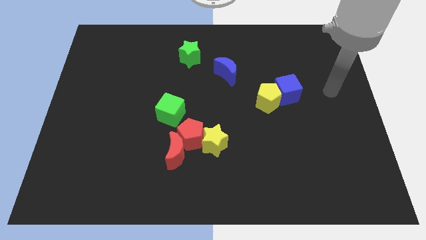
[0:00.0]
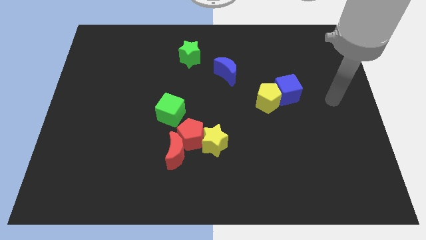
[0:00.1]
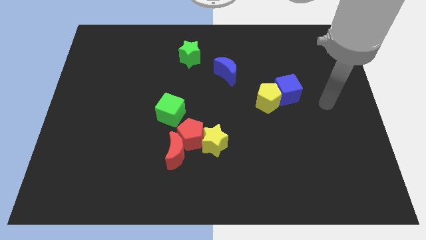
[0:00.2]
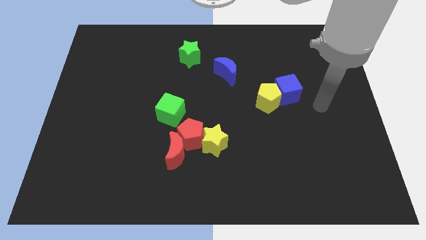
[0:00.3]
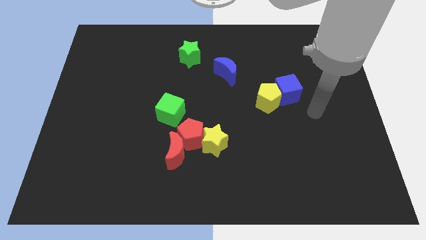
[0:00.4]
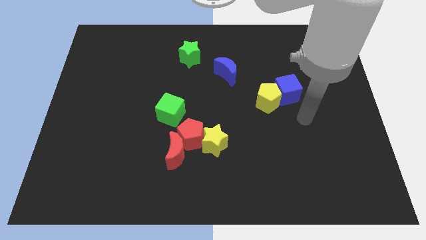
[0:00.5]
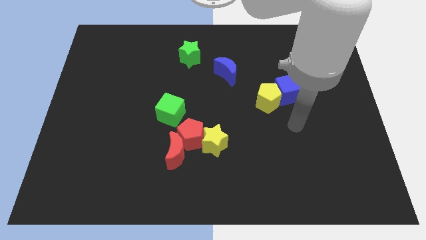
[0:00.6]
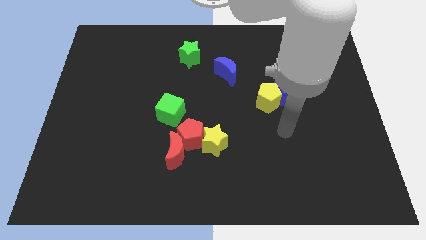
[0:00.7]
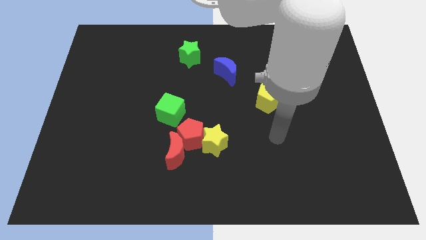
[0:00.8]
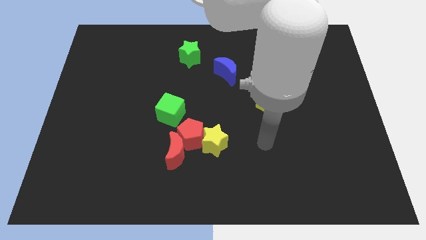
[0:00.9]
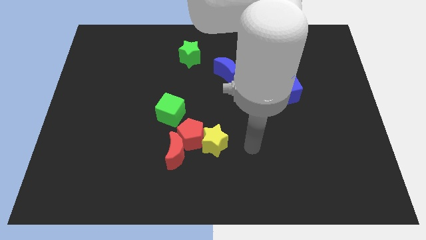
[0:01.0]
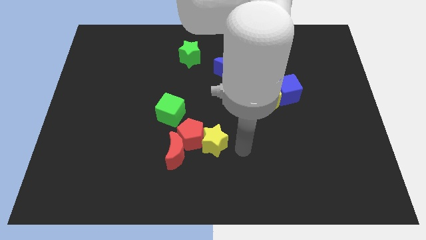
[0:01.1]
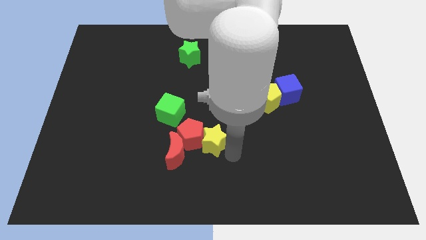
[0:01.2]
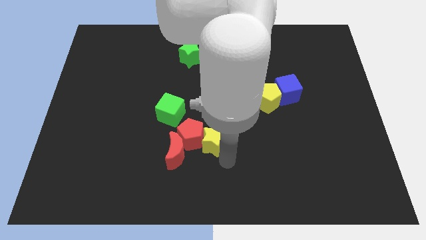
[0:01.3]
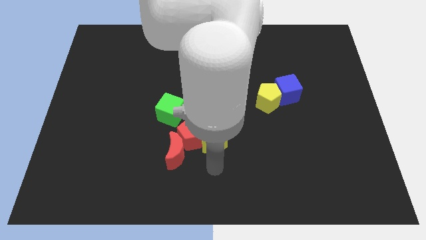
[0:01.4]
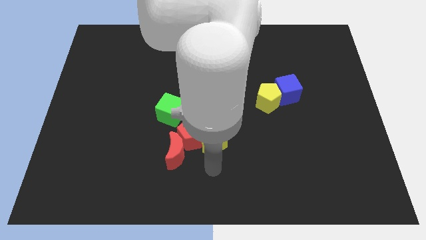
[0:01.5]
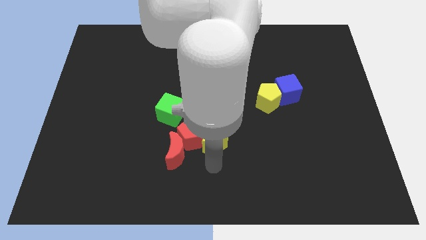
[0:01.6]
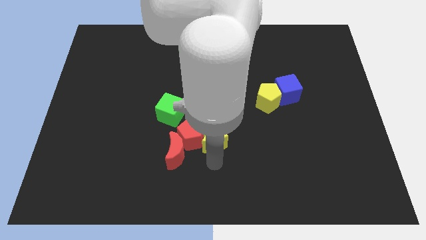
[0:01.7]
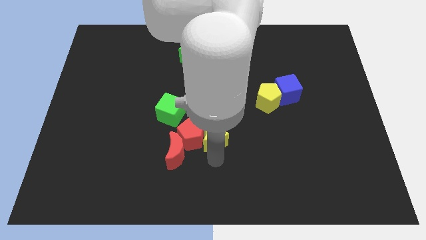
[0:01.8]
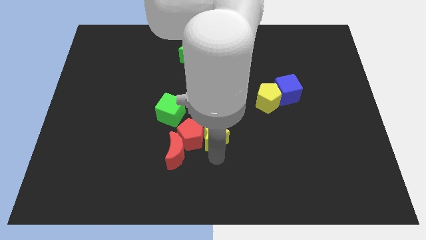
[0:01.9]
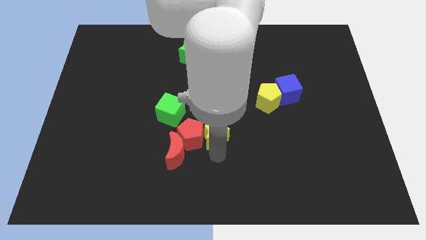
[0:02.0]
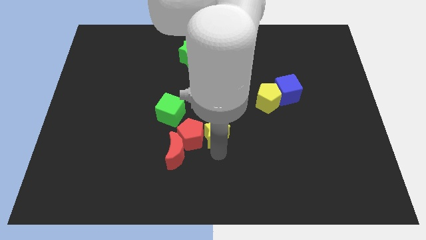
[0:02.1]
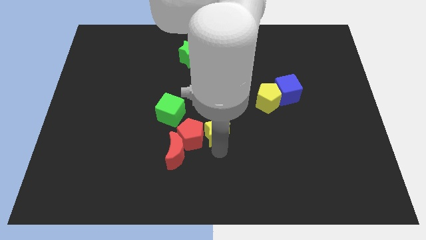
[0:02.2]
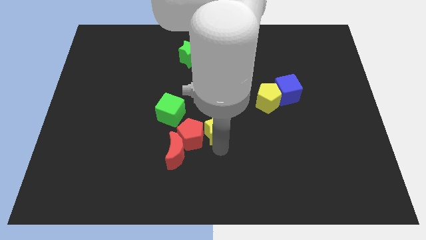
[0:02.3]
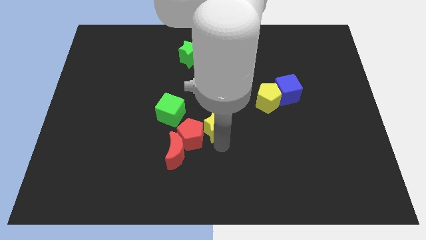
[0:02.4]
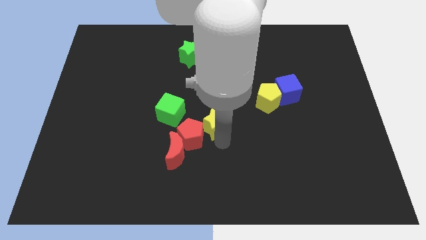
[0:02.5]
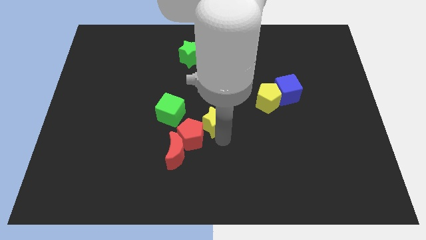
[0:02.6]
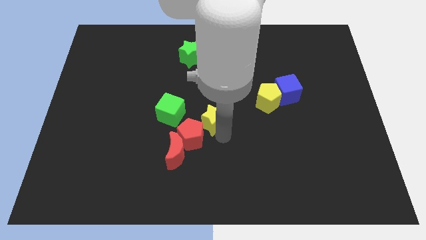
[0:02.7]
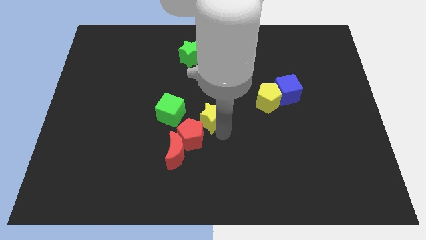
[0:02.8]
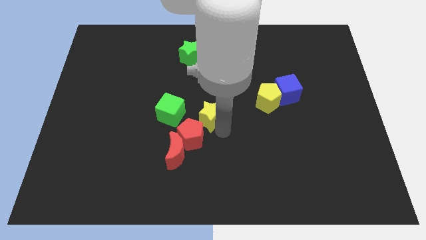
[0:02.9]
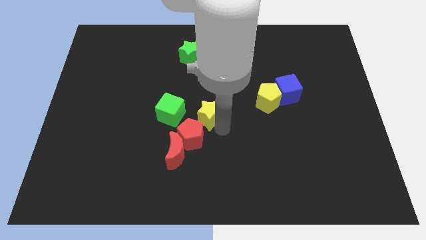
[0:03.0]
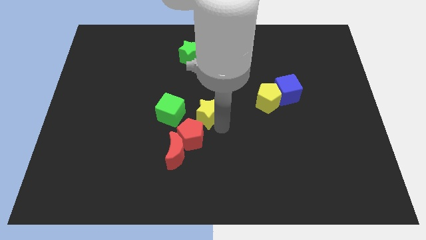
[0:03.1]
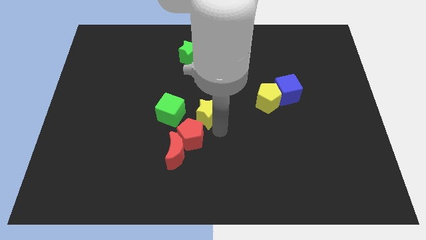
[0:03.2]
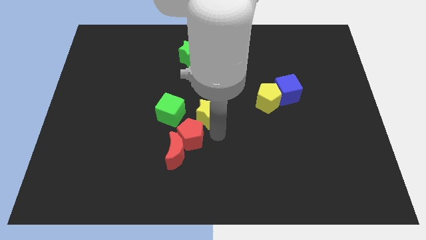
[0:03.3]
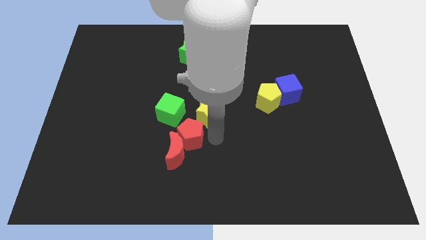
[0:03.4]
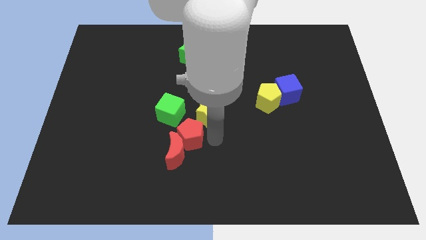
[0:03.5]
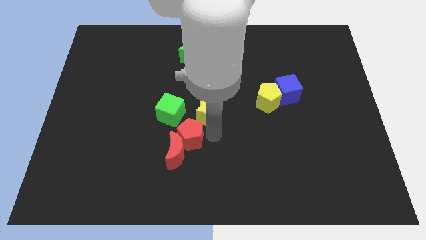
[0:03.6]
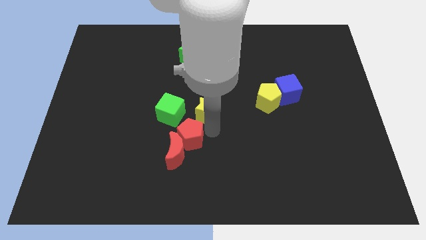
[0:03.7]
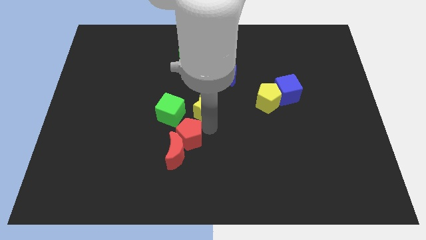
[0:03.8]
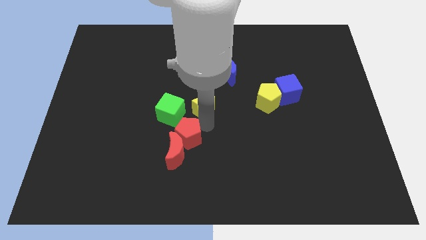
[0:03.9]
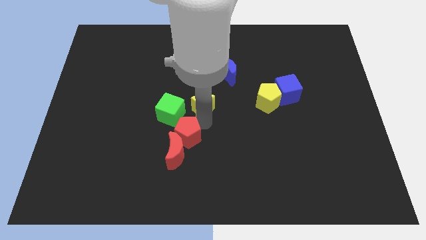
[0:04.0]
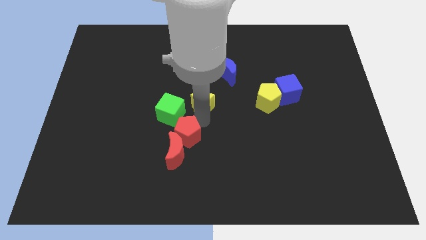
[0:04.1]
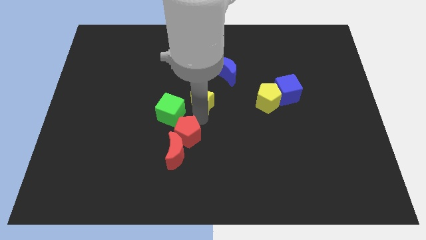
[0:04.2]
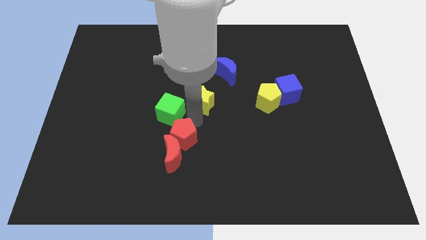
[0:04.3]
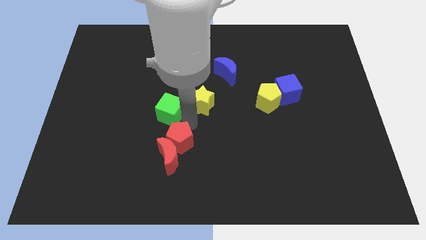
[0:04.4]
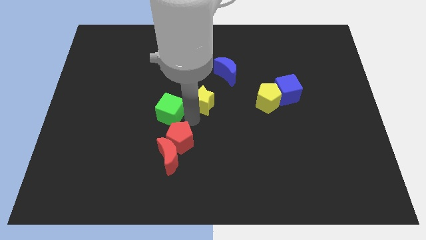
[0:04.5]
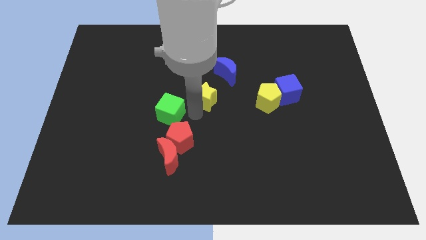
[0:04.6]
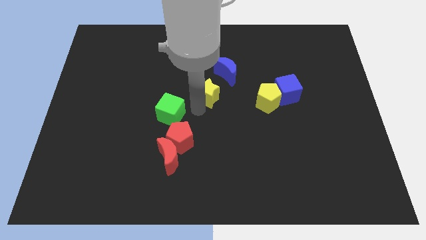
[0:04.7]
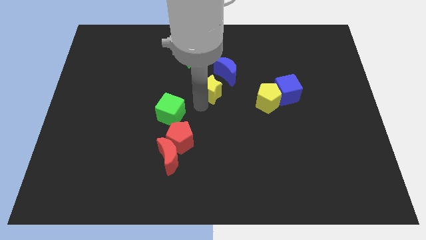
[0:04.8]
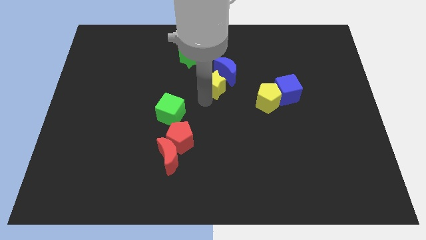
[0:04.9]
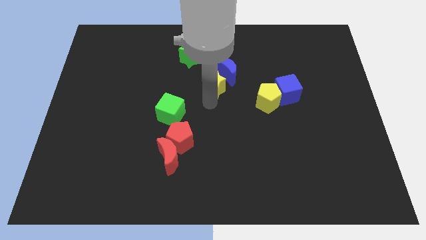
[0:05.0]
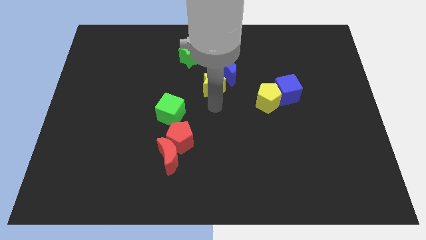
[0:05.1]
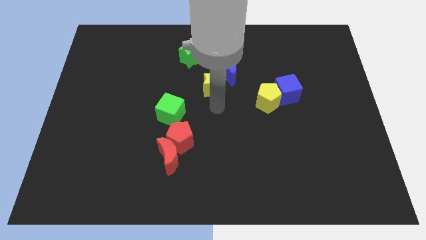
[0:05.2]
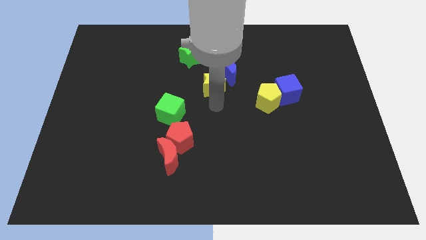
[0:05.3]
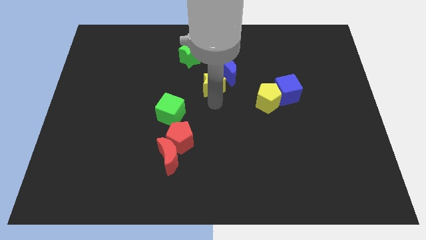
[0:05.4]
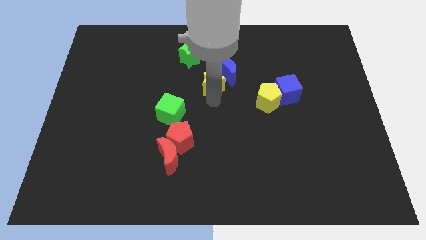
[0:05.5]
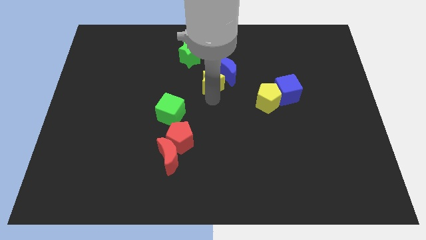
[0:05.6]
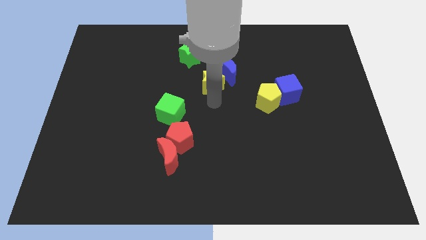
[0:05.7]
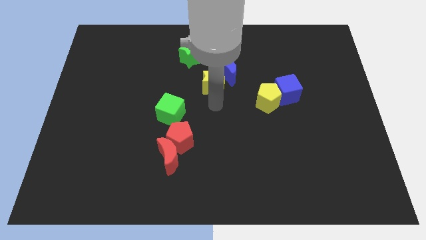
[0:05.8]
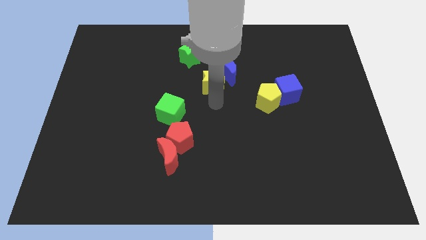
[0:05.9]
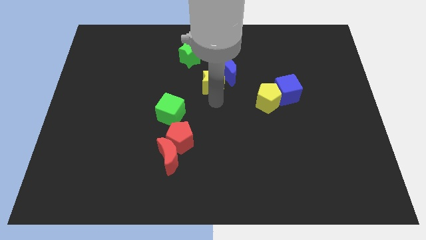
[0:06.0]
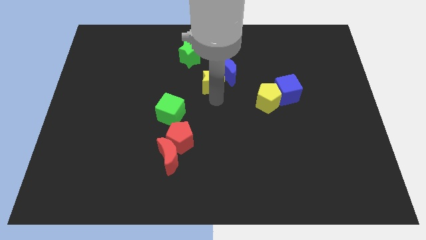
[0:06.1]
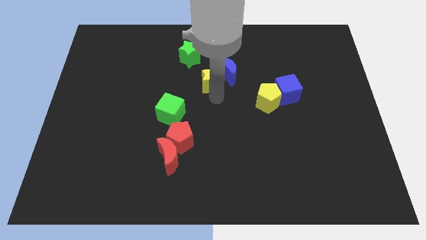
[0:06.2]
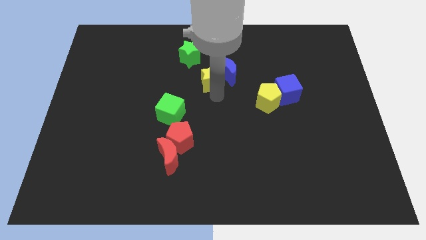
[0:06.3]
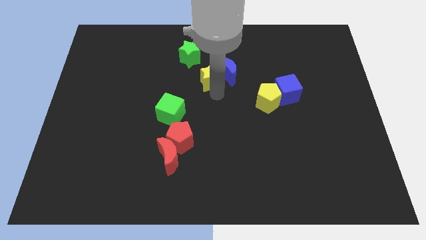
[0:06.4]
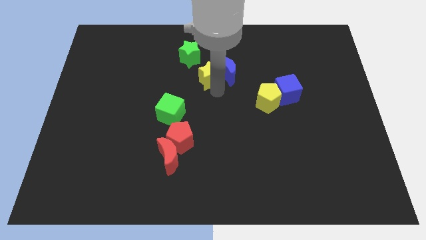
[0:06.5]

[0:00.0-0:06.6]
slide the yellow star to the top left side of the blue moon

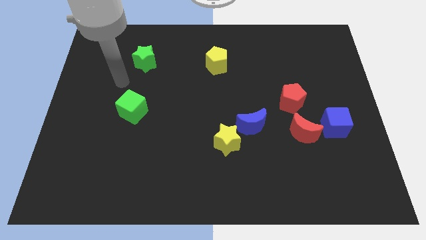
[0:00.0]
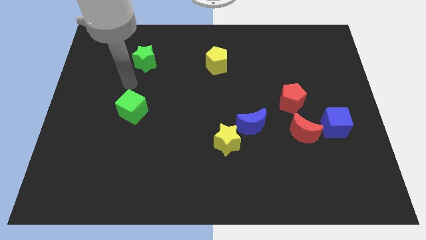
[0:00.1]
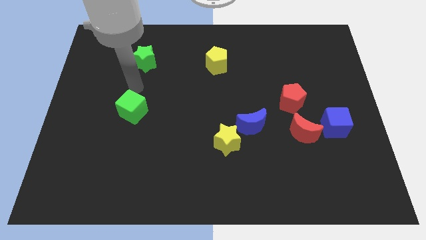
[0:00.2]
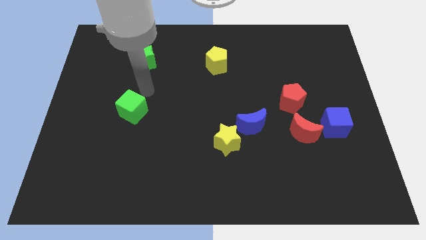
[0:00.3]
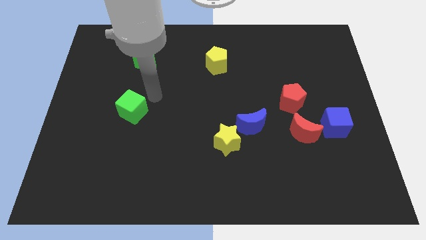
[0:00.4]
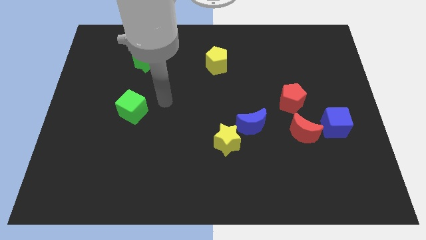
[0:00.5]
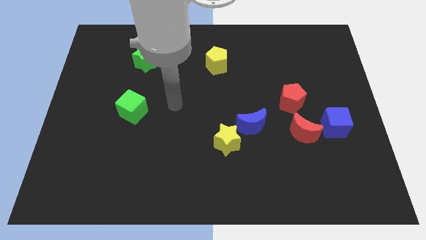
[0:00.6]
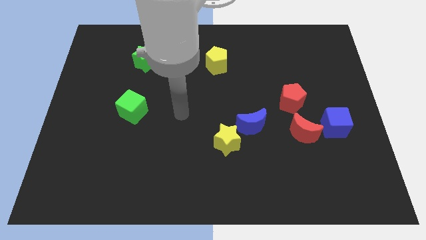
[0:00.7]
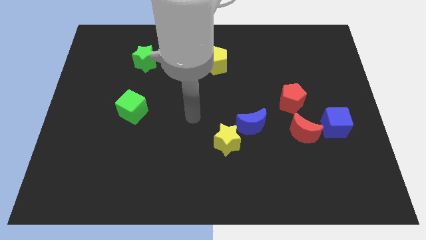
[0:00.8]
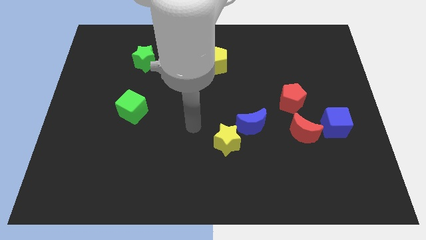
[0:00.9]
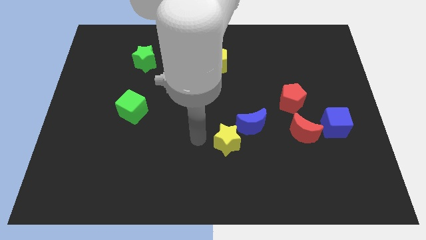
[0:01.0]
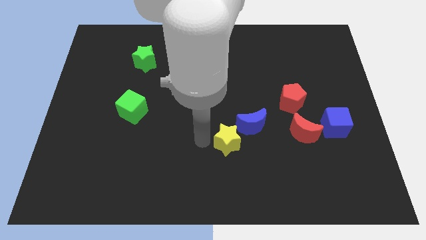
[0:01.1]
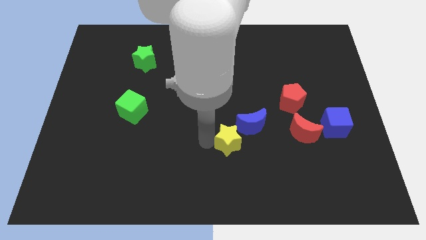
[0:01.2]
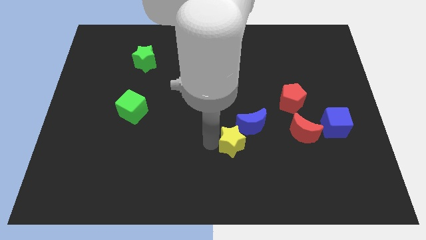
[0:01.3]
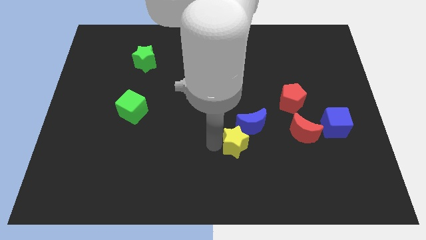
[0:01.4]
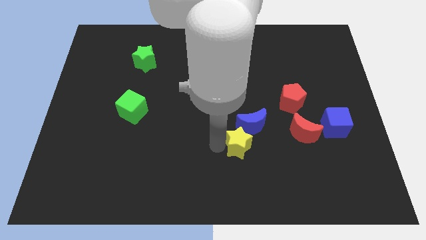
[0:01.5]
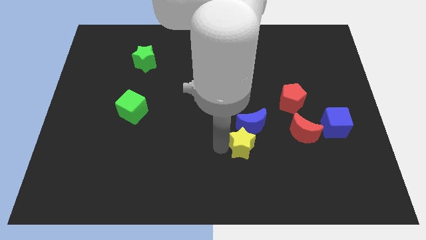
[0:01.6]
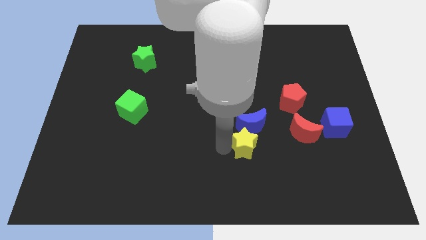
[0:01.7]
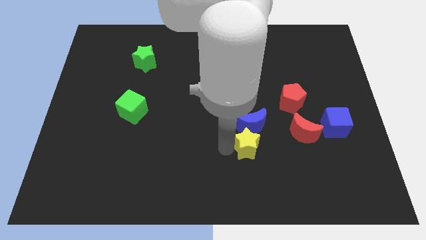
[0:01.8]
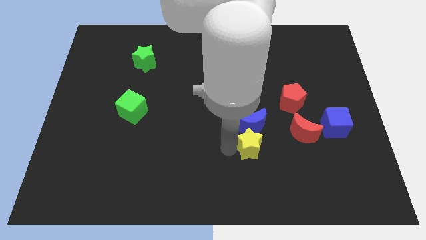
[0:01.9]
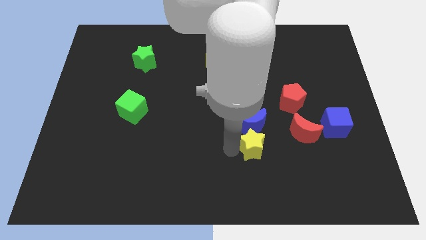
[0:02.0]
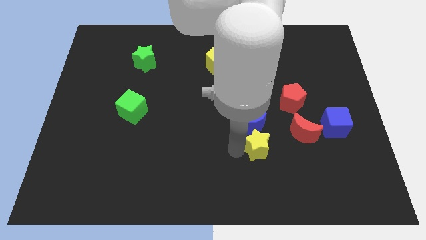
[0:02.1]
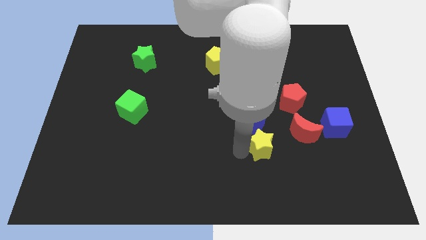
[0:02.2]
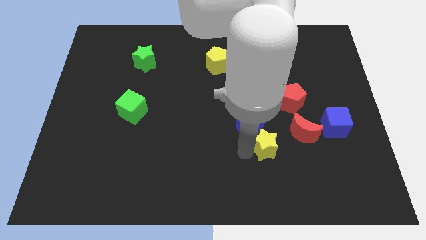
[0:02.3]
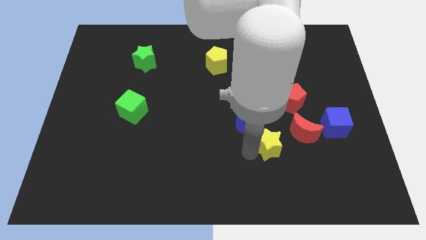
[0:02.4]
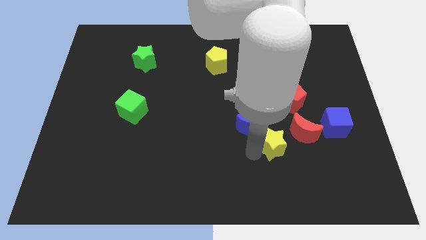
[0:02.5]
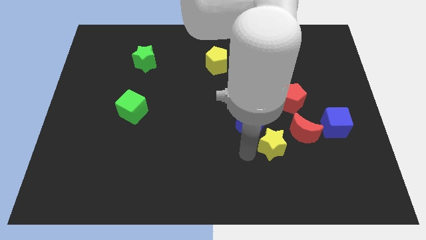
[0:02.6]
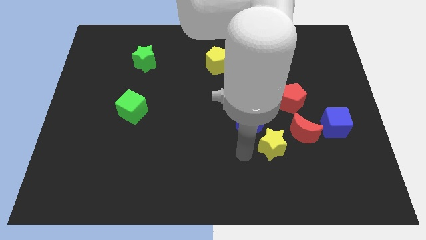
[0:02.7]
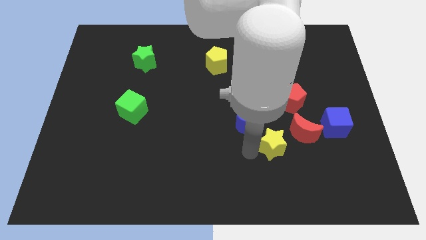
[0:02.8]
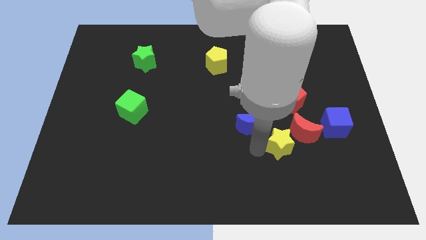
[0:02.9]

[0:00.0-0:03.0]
put the yellow star to the bottom of the red pentagon
